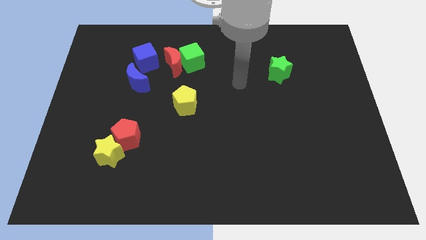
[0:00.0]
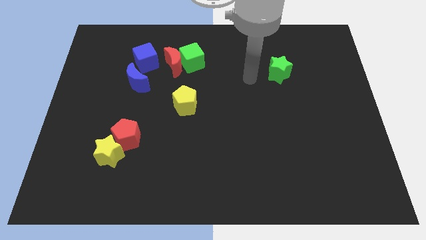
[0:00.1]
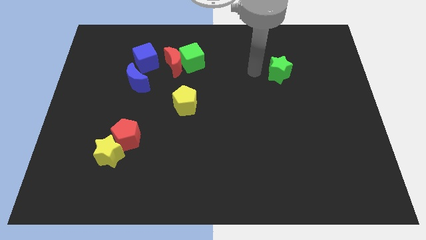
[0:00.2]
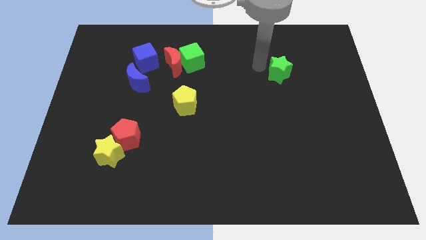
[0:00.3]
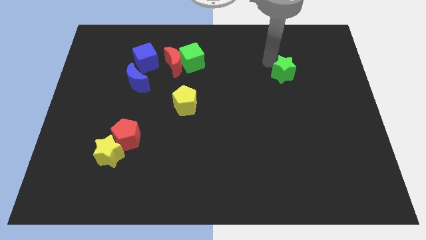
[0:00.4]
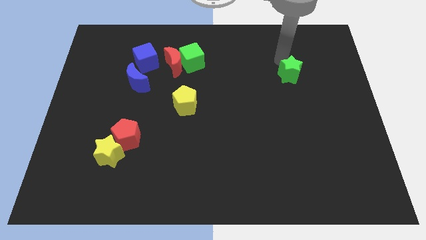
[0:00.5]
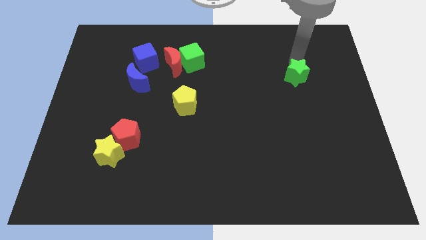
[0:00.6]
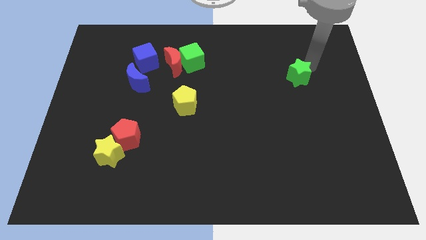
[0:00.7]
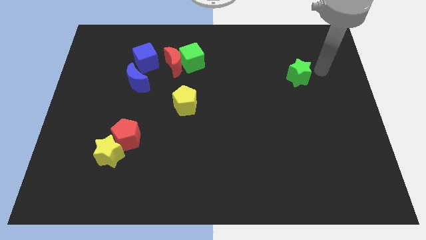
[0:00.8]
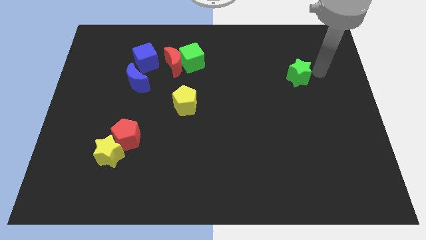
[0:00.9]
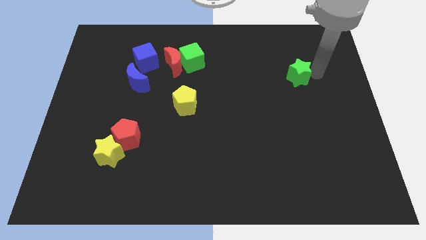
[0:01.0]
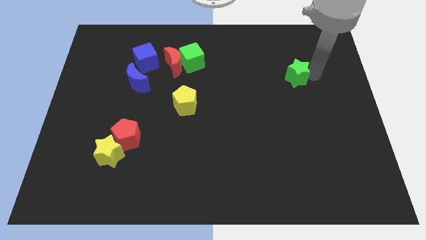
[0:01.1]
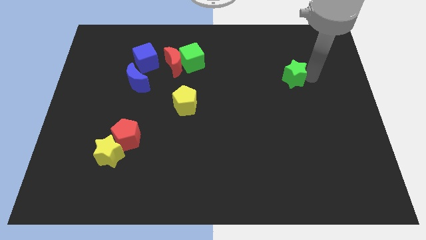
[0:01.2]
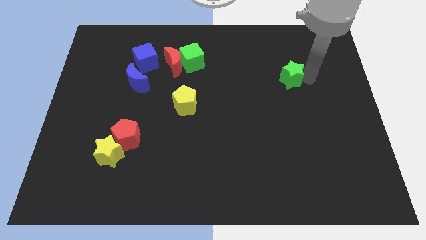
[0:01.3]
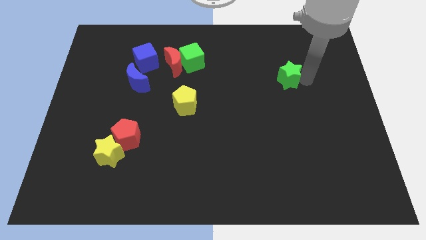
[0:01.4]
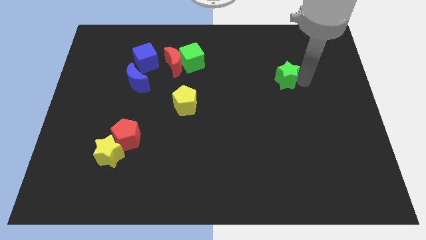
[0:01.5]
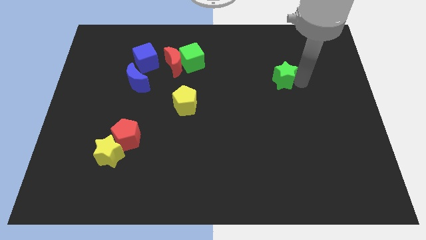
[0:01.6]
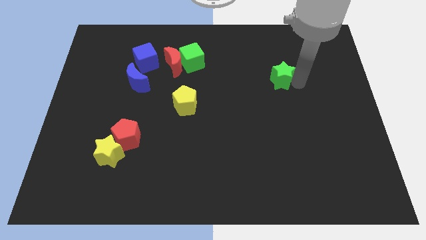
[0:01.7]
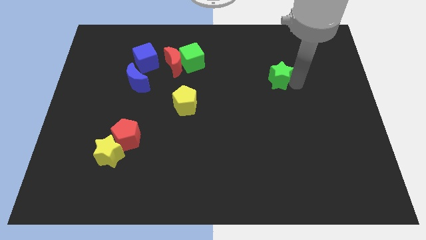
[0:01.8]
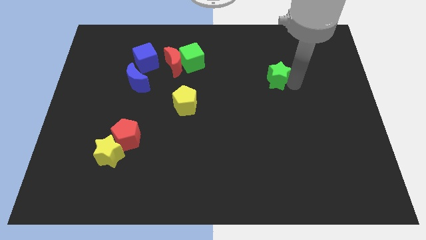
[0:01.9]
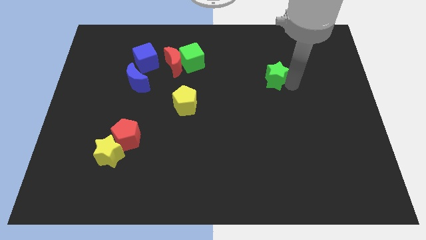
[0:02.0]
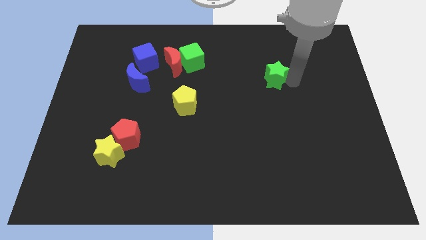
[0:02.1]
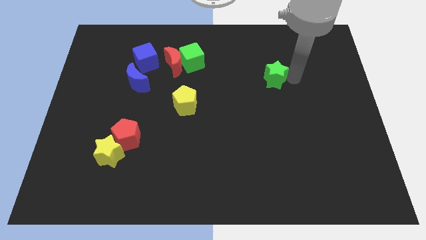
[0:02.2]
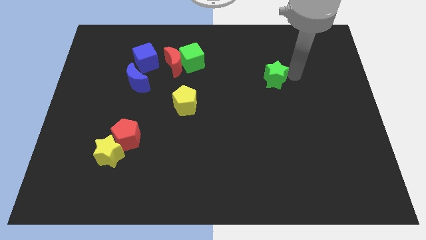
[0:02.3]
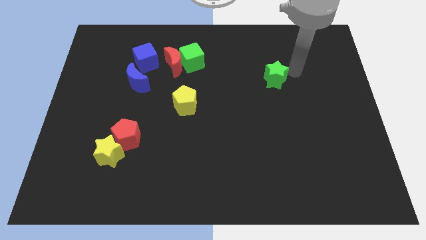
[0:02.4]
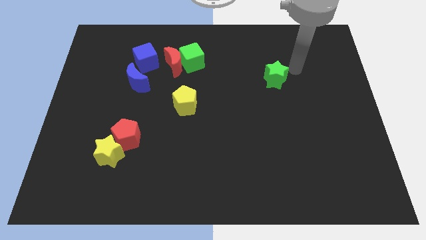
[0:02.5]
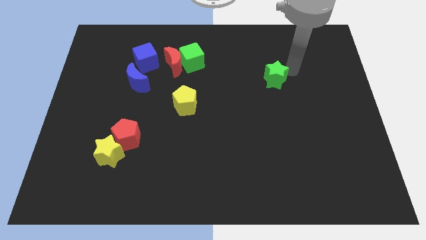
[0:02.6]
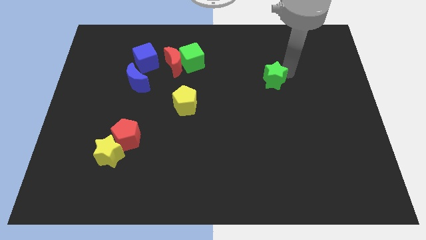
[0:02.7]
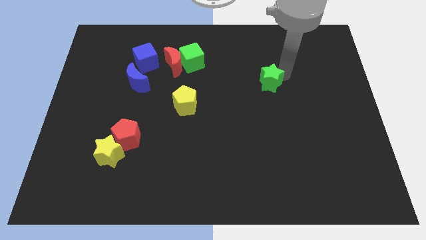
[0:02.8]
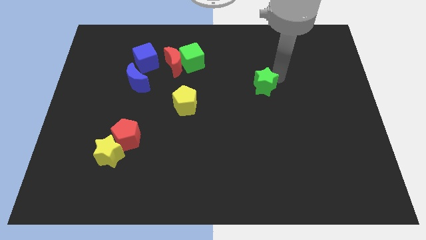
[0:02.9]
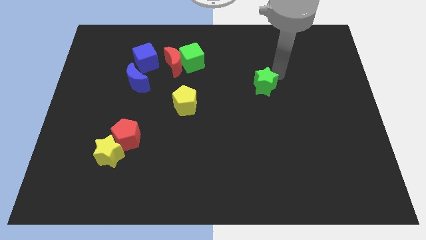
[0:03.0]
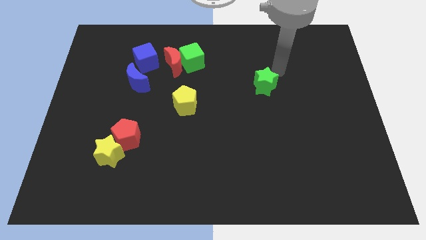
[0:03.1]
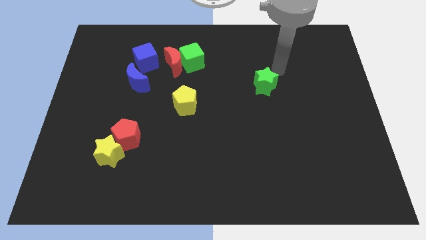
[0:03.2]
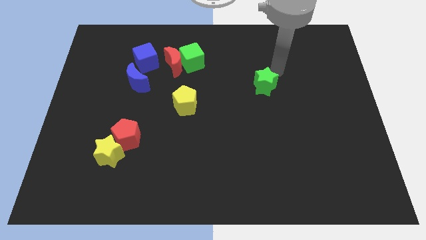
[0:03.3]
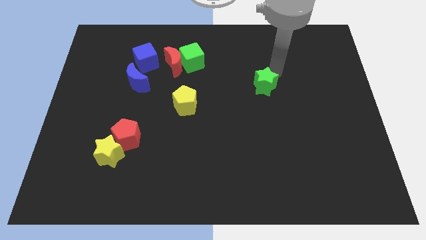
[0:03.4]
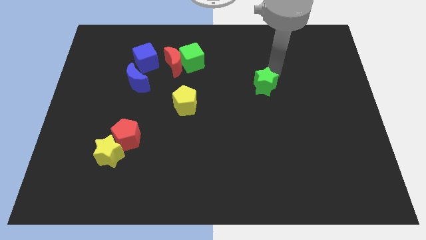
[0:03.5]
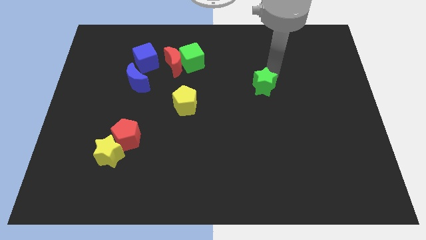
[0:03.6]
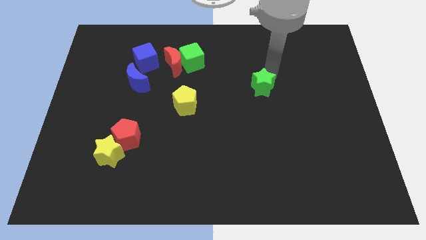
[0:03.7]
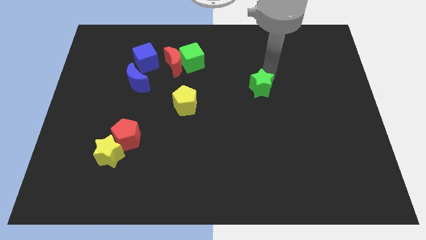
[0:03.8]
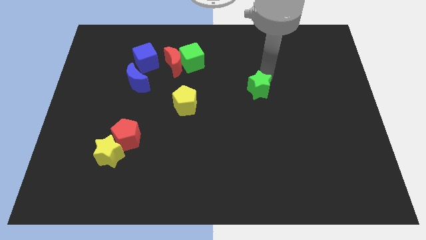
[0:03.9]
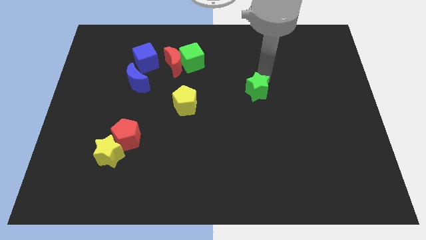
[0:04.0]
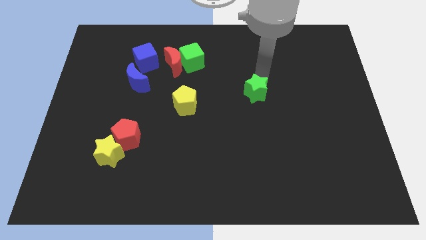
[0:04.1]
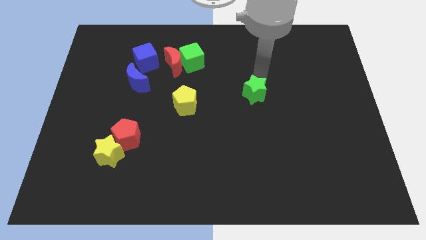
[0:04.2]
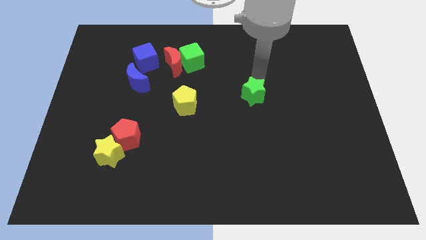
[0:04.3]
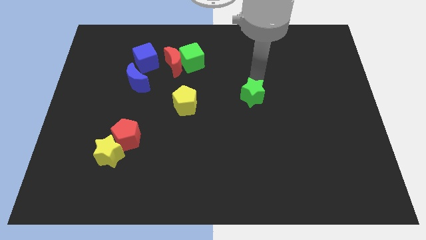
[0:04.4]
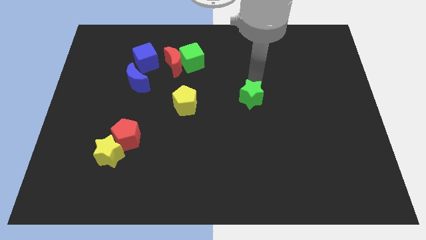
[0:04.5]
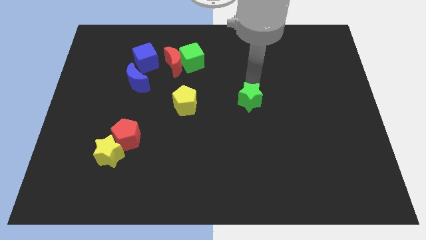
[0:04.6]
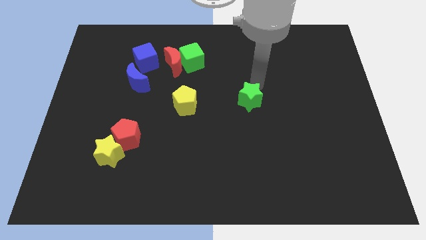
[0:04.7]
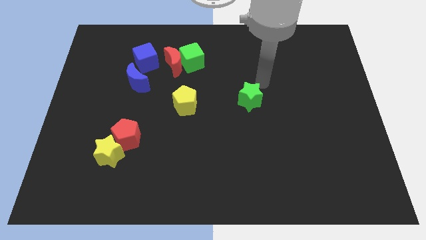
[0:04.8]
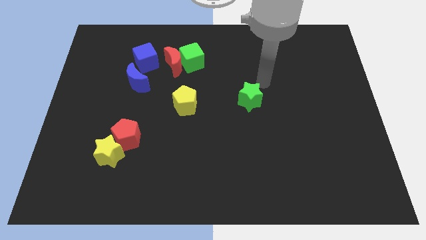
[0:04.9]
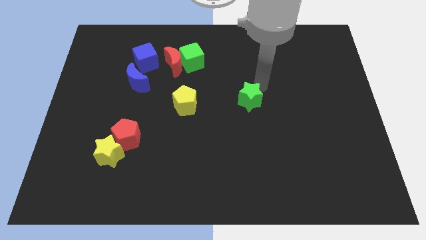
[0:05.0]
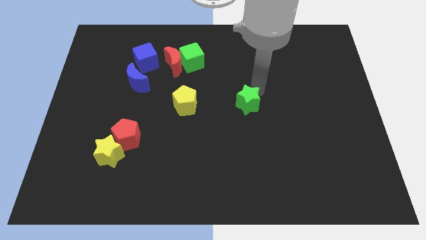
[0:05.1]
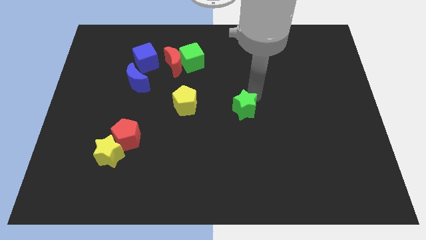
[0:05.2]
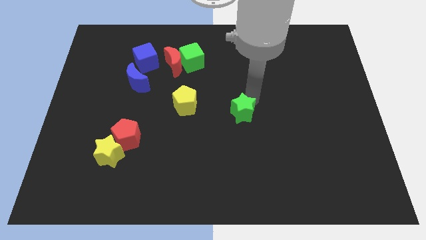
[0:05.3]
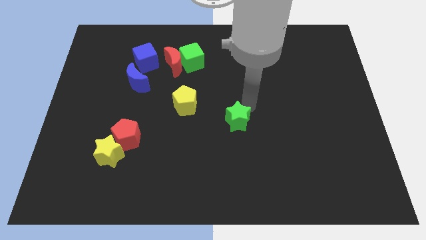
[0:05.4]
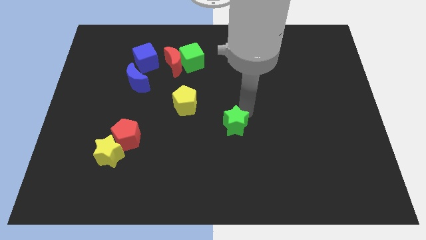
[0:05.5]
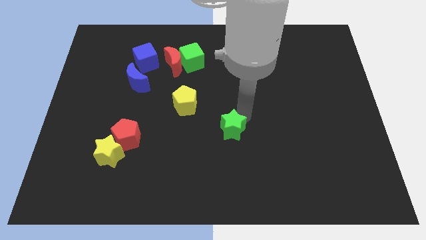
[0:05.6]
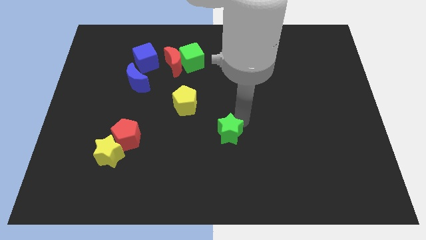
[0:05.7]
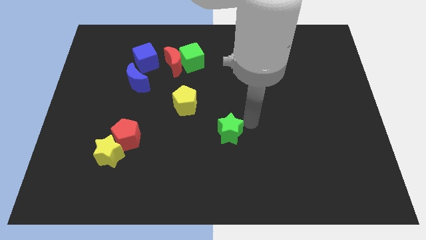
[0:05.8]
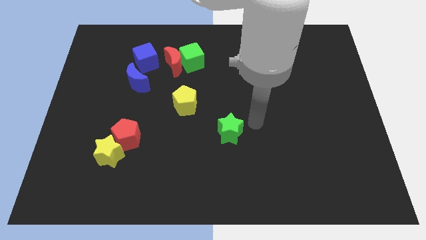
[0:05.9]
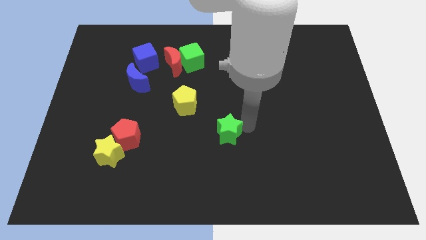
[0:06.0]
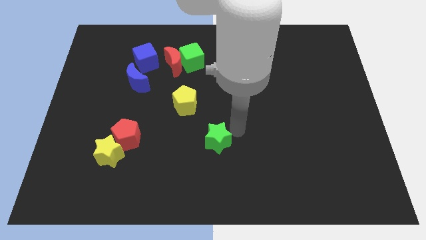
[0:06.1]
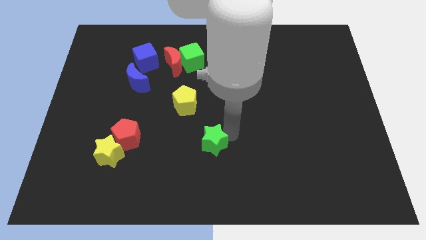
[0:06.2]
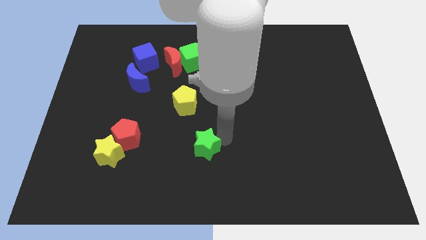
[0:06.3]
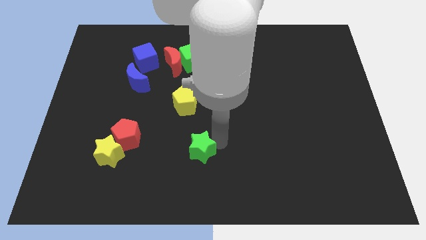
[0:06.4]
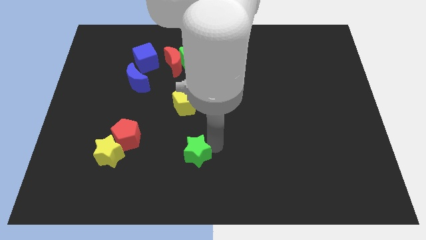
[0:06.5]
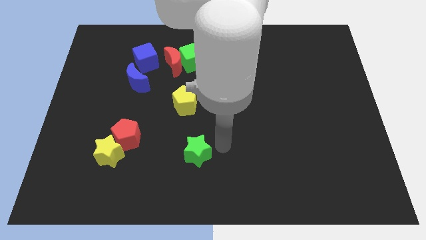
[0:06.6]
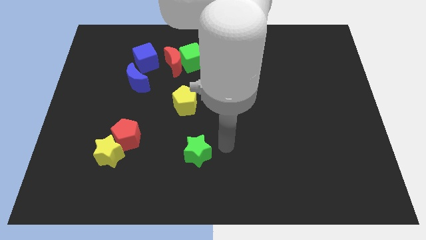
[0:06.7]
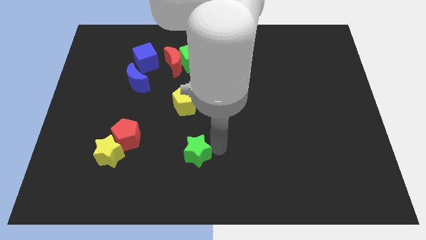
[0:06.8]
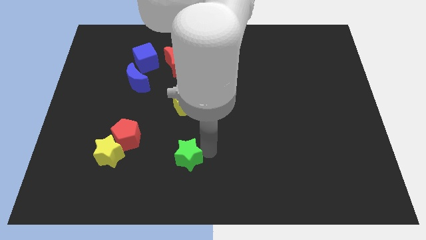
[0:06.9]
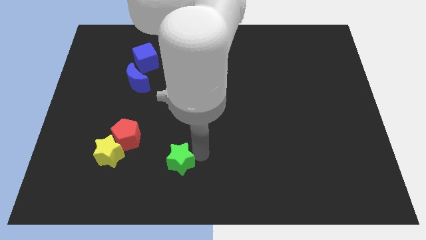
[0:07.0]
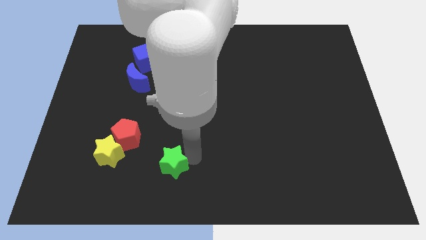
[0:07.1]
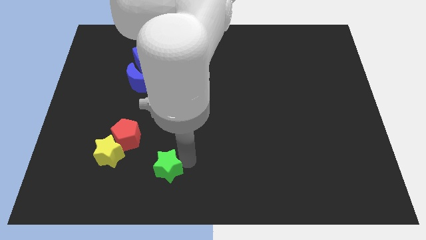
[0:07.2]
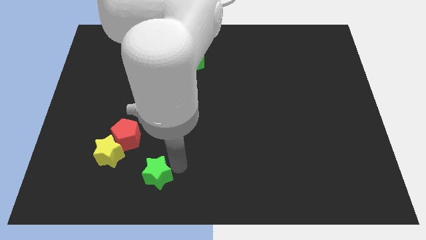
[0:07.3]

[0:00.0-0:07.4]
move the green star diagonally down and to the right of the yellow star

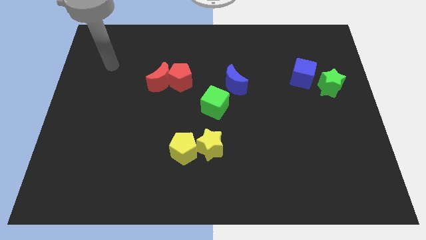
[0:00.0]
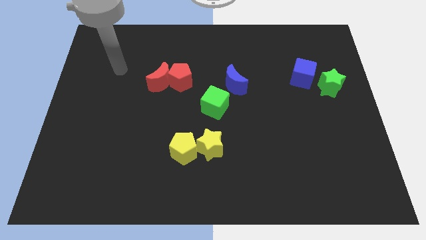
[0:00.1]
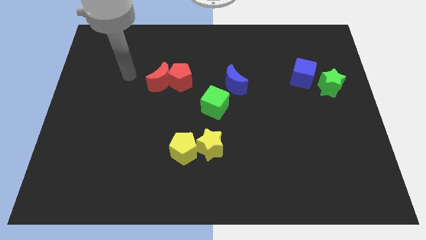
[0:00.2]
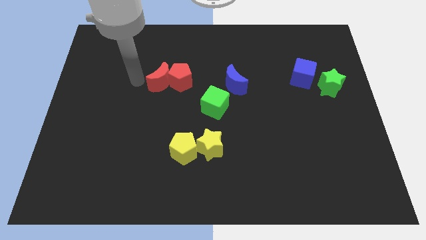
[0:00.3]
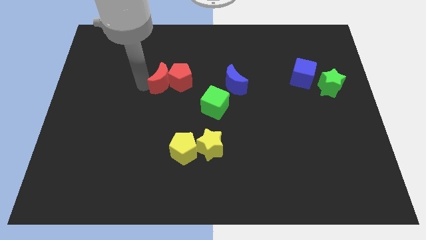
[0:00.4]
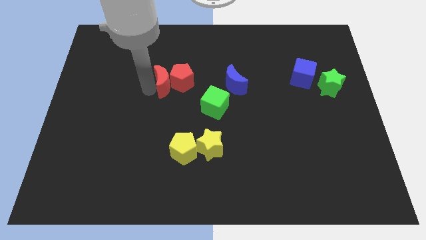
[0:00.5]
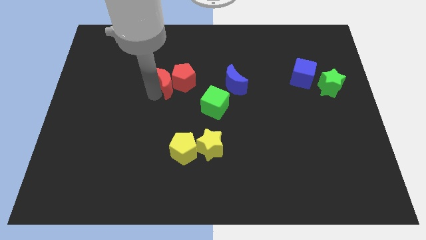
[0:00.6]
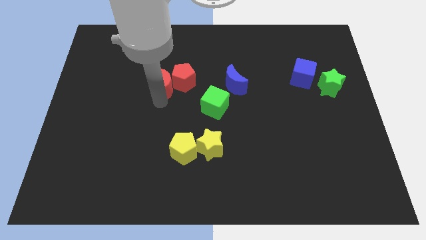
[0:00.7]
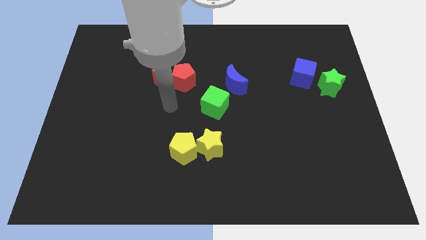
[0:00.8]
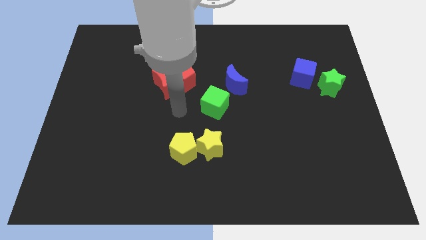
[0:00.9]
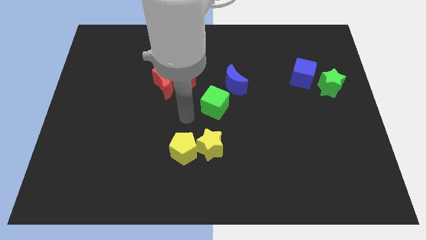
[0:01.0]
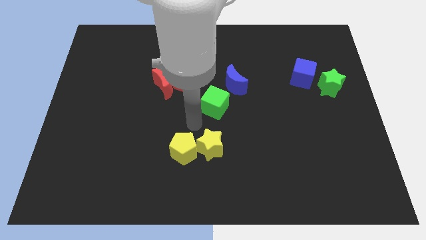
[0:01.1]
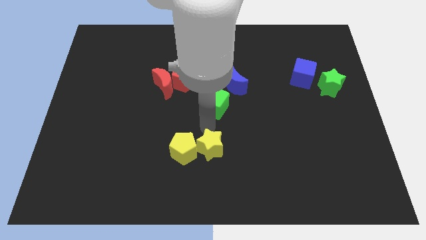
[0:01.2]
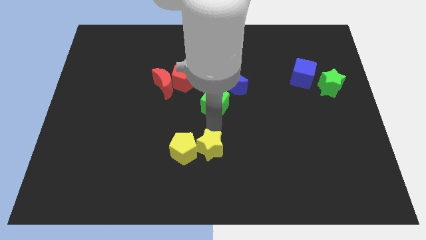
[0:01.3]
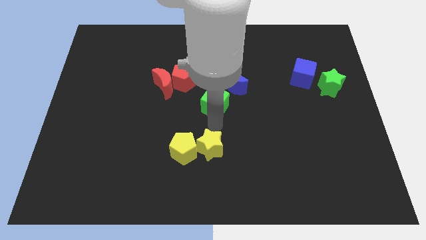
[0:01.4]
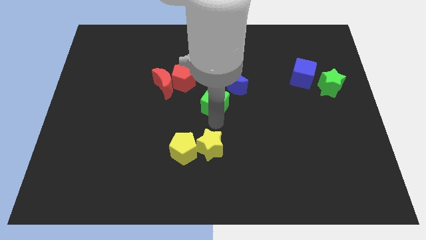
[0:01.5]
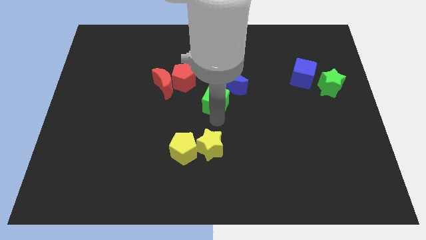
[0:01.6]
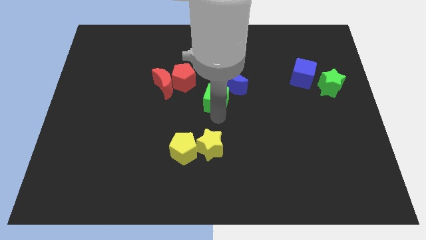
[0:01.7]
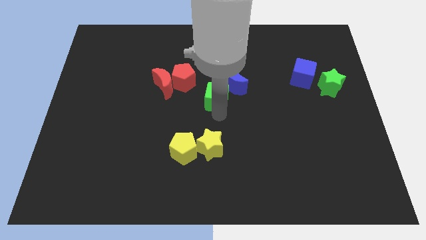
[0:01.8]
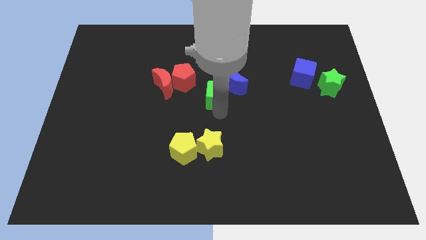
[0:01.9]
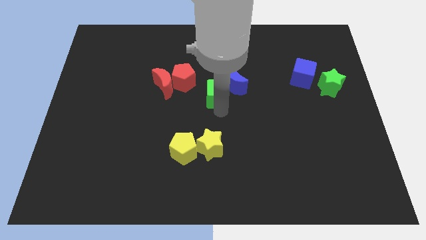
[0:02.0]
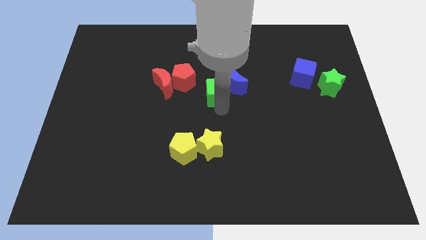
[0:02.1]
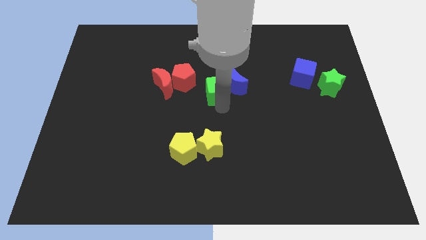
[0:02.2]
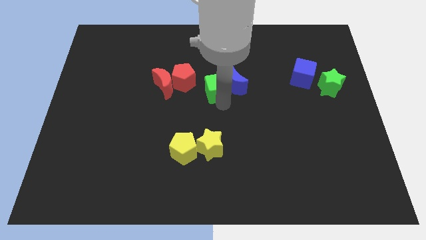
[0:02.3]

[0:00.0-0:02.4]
put the green cube to the top left side of the blue moon
